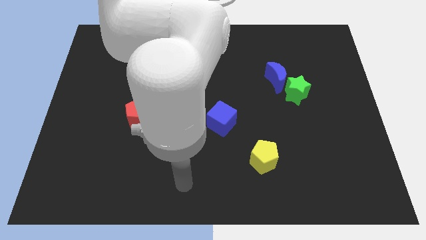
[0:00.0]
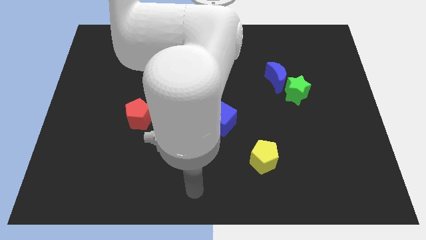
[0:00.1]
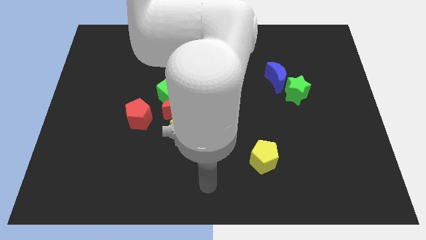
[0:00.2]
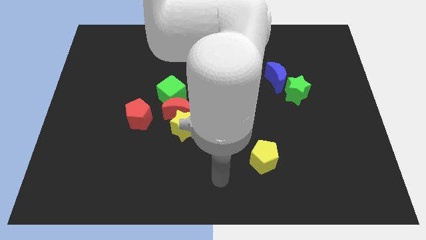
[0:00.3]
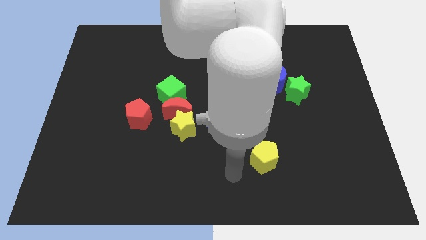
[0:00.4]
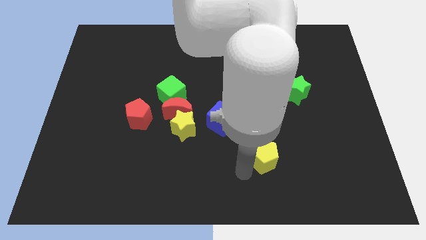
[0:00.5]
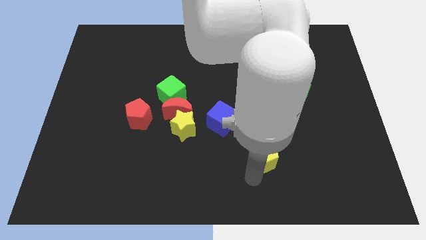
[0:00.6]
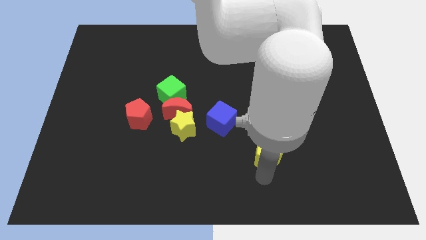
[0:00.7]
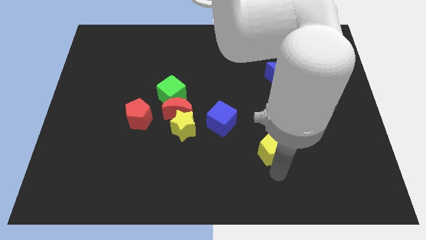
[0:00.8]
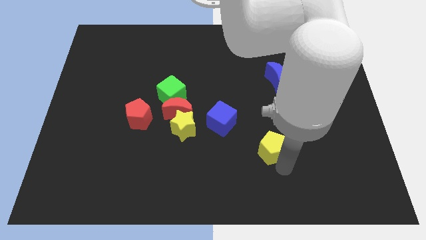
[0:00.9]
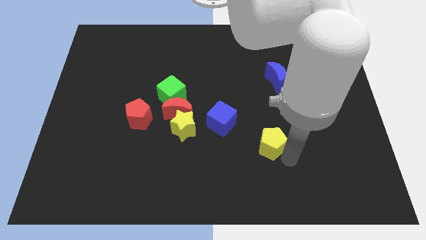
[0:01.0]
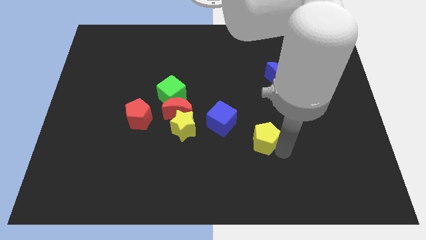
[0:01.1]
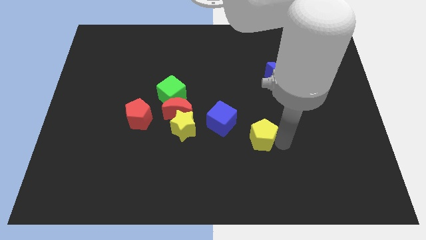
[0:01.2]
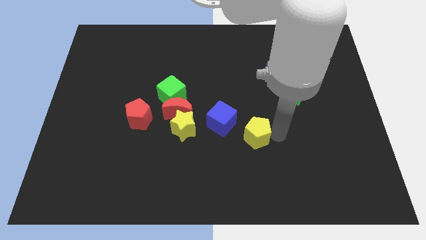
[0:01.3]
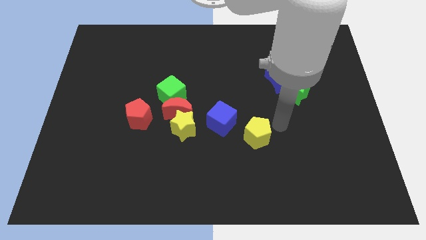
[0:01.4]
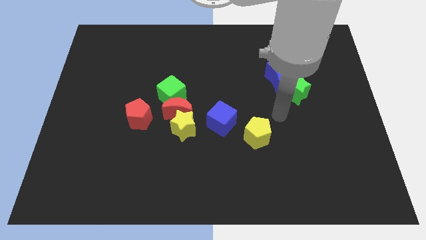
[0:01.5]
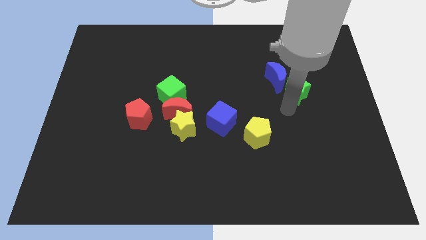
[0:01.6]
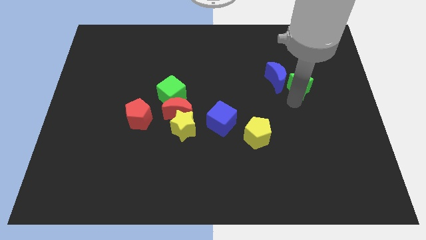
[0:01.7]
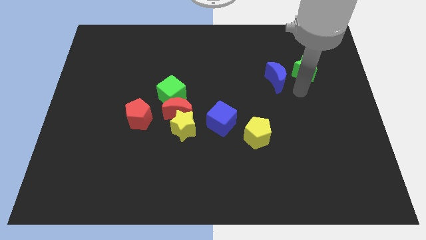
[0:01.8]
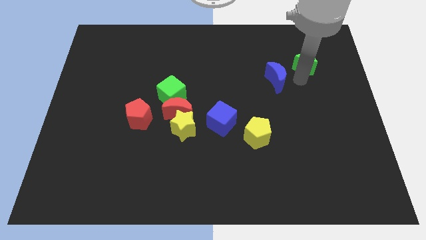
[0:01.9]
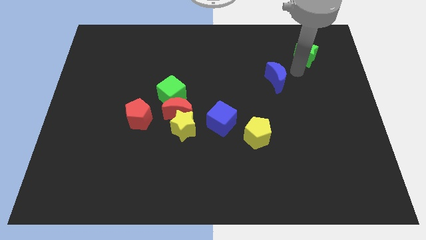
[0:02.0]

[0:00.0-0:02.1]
move the blue moon away from the green star

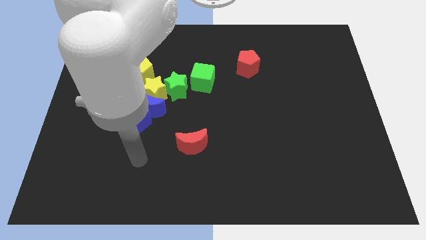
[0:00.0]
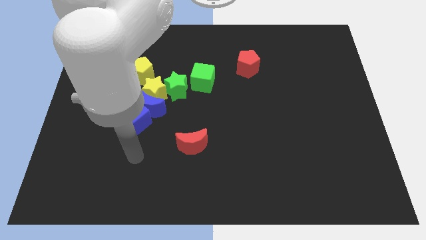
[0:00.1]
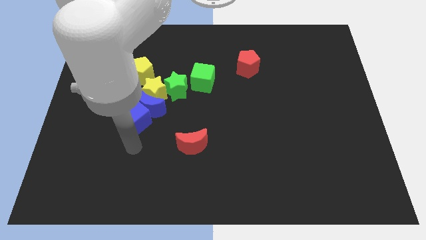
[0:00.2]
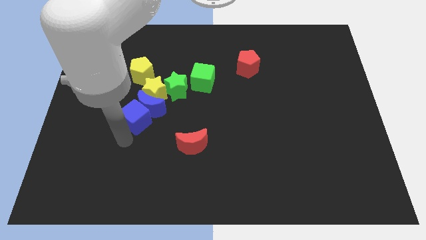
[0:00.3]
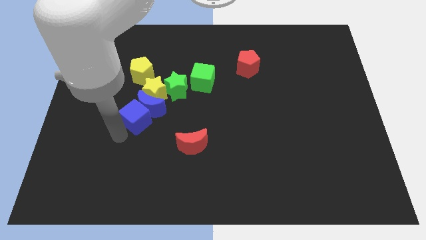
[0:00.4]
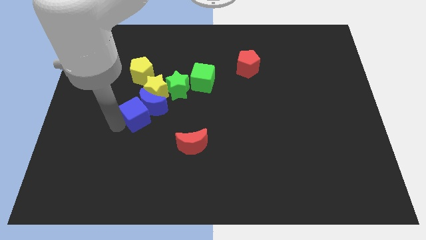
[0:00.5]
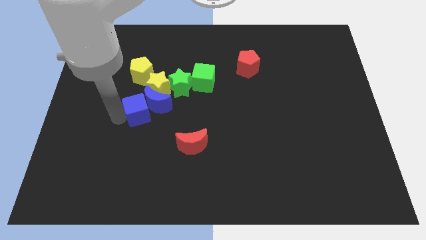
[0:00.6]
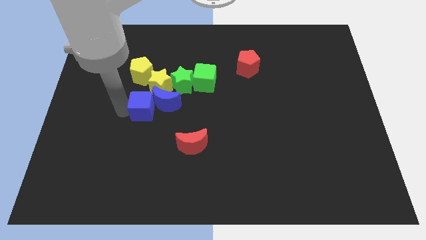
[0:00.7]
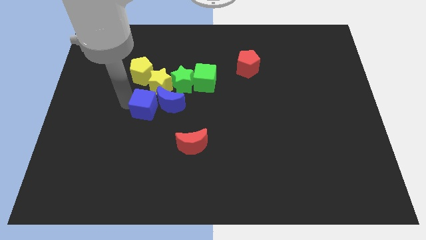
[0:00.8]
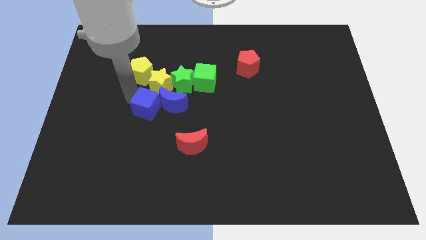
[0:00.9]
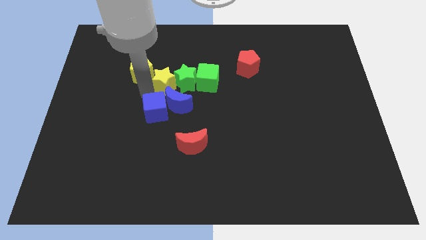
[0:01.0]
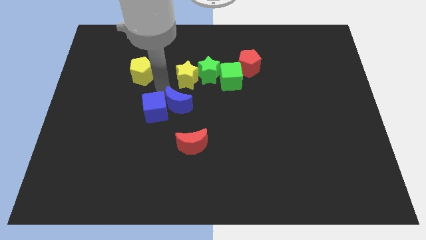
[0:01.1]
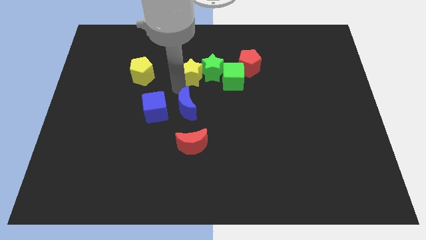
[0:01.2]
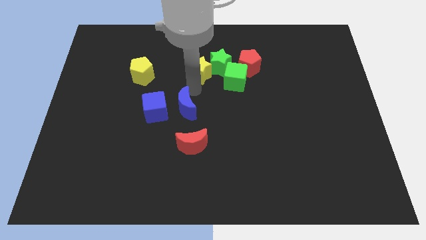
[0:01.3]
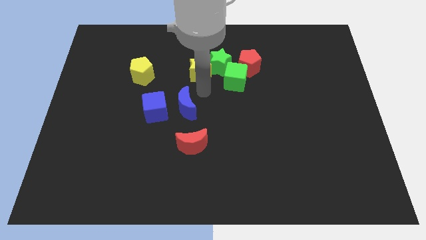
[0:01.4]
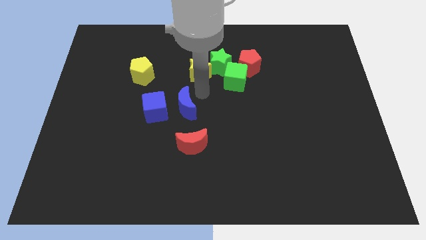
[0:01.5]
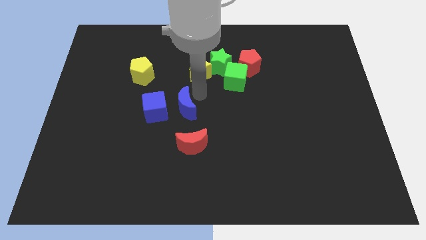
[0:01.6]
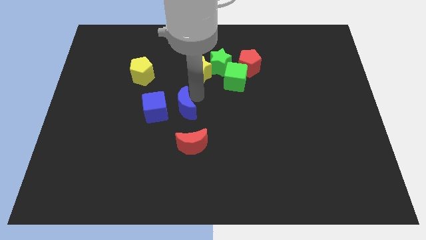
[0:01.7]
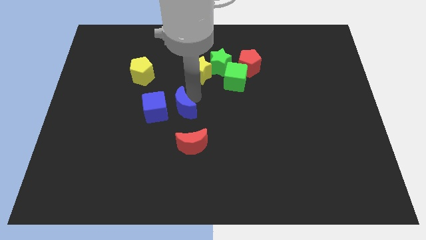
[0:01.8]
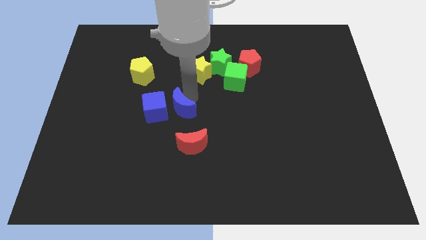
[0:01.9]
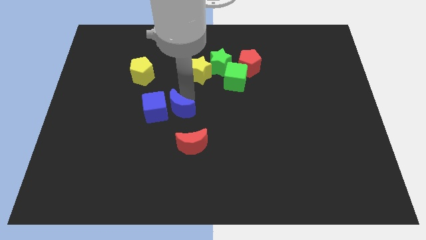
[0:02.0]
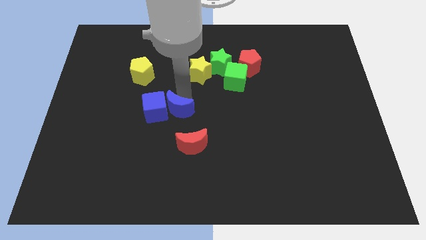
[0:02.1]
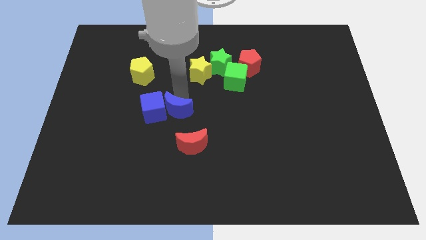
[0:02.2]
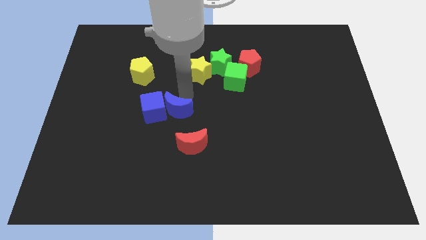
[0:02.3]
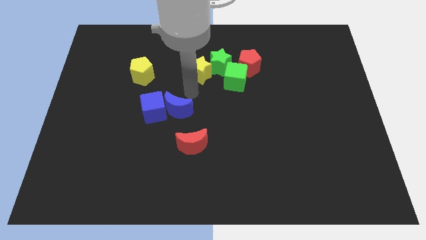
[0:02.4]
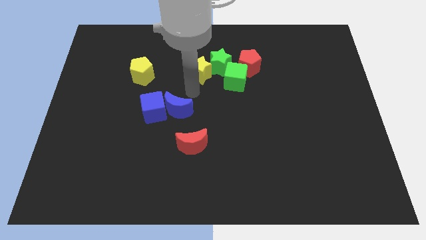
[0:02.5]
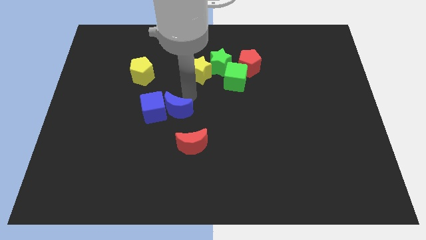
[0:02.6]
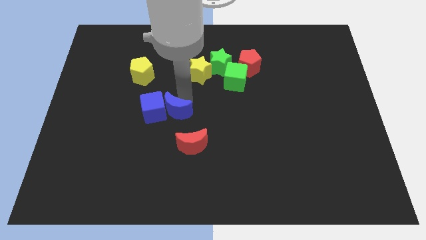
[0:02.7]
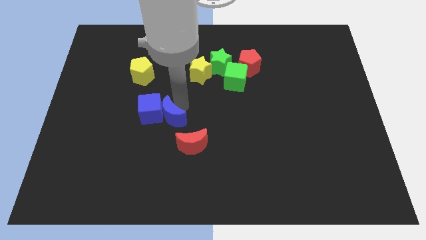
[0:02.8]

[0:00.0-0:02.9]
separate the blue moon from the group of blocks

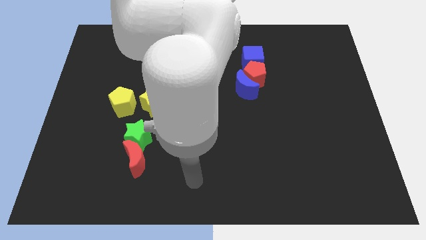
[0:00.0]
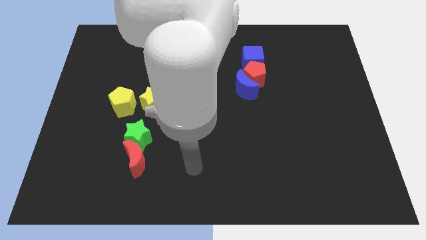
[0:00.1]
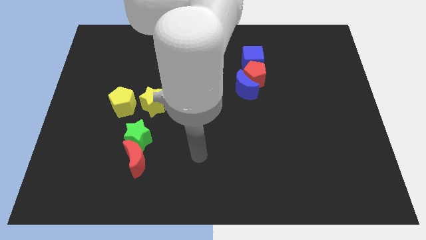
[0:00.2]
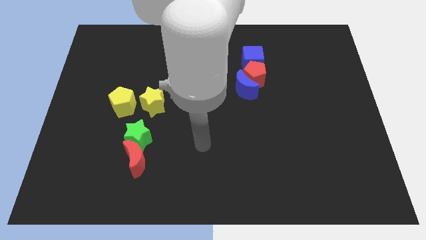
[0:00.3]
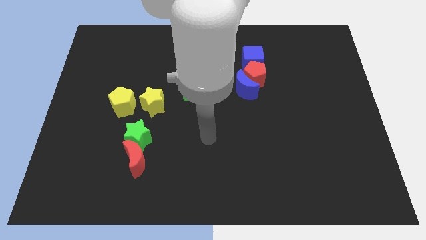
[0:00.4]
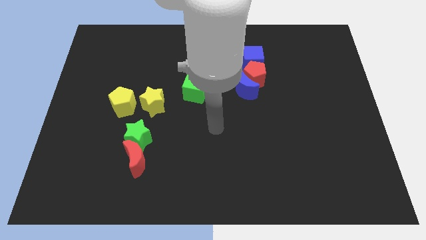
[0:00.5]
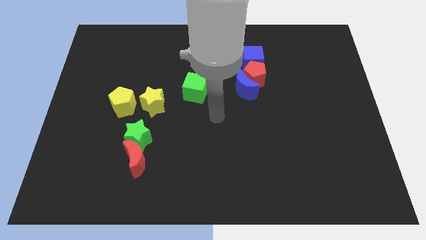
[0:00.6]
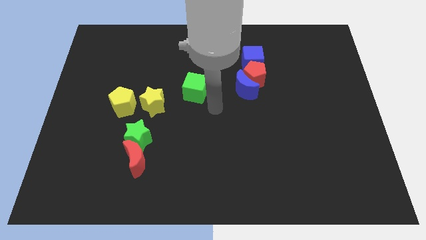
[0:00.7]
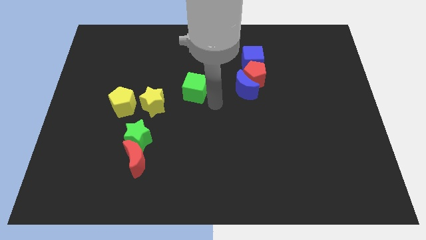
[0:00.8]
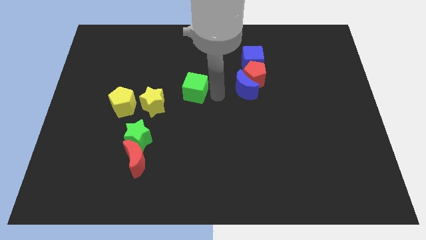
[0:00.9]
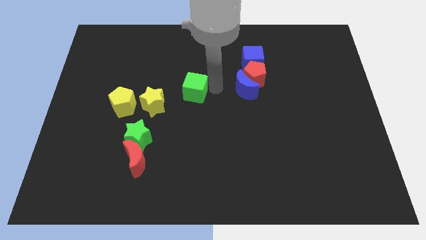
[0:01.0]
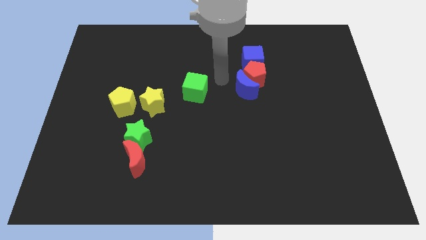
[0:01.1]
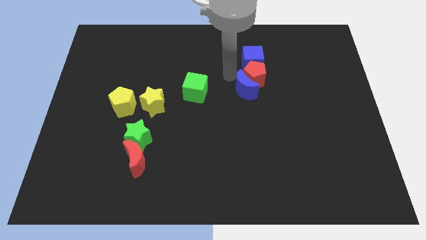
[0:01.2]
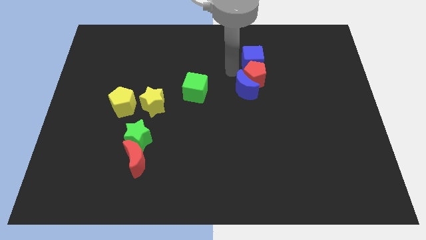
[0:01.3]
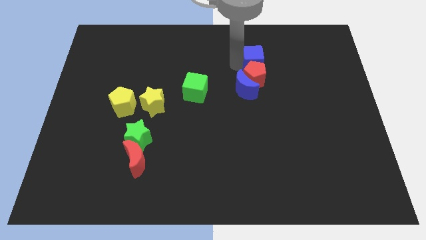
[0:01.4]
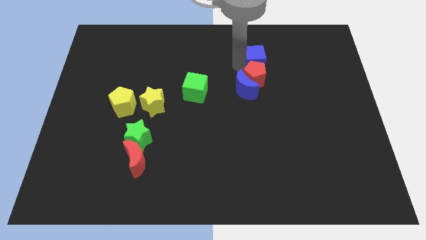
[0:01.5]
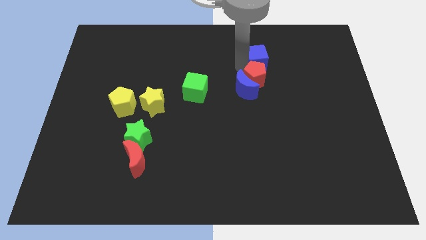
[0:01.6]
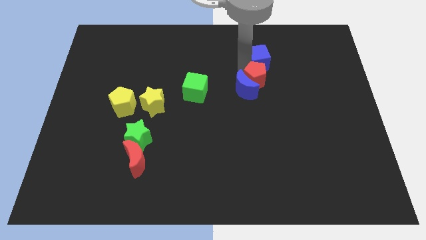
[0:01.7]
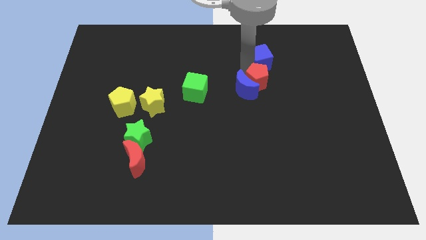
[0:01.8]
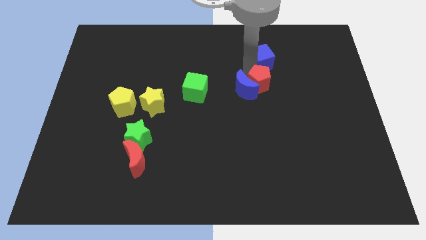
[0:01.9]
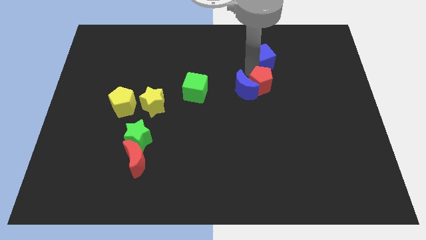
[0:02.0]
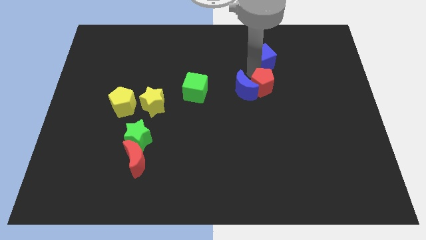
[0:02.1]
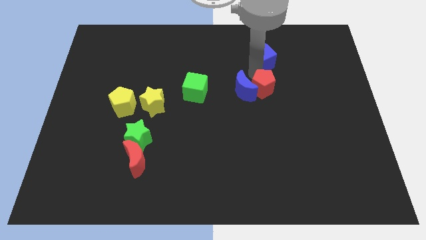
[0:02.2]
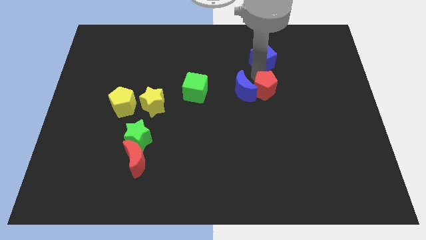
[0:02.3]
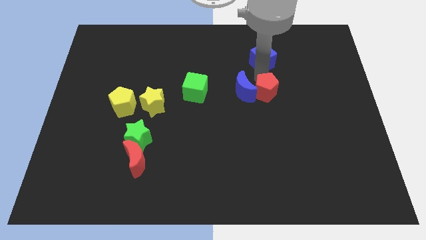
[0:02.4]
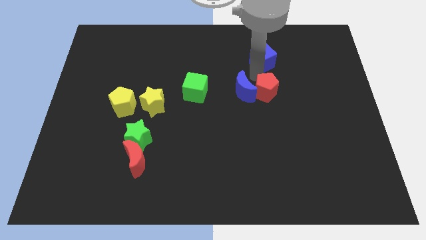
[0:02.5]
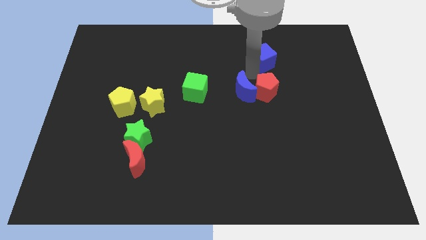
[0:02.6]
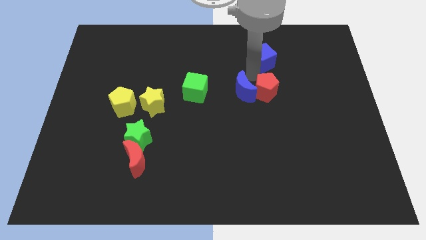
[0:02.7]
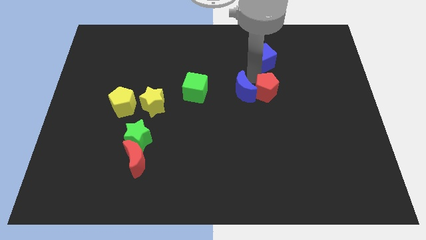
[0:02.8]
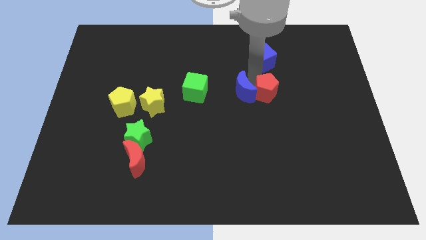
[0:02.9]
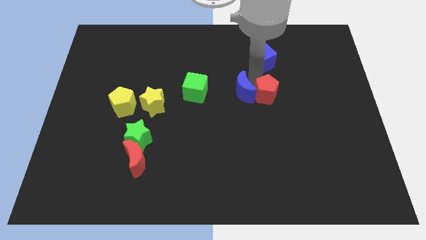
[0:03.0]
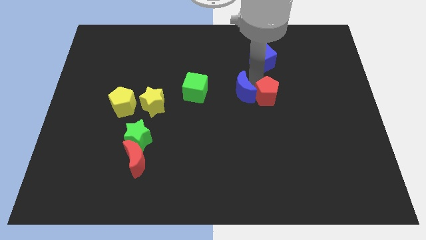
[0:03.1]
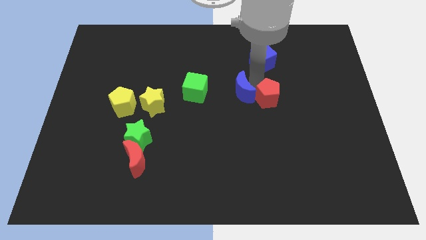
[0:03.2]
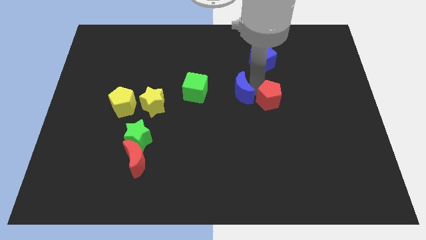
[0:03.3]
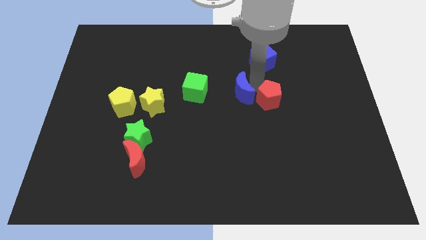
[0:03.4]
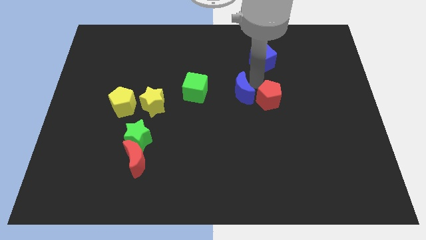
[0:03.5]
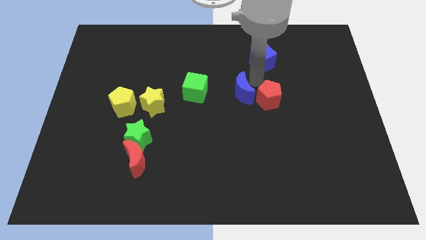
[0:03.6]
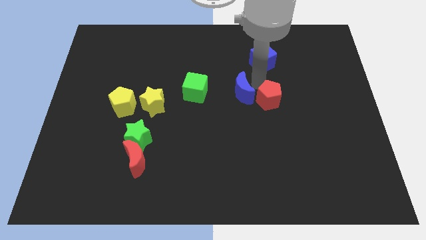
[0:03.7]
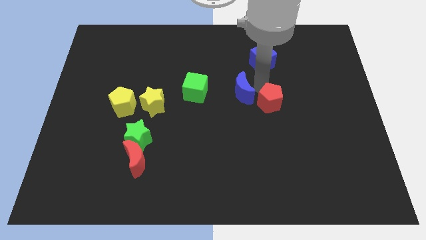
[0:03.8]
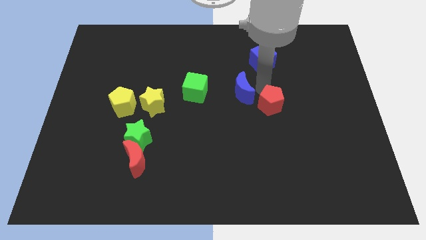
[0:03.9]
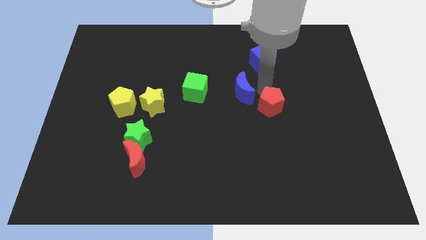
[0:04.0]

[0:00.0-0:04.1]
pull the red pentagon apart from the blue moon and blue cube

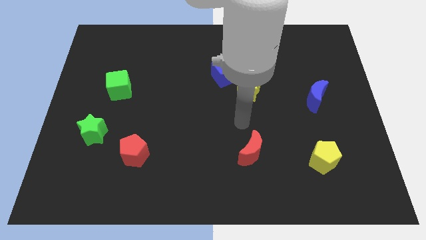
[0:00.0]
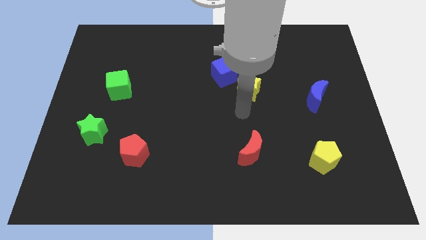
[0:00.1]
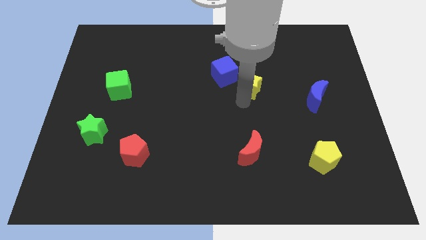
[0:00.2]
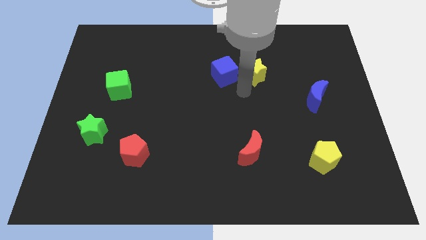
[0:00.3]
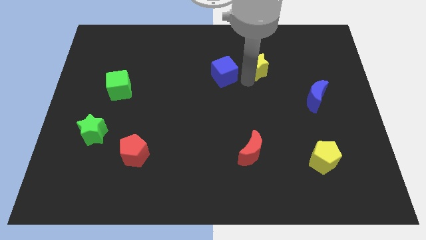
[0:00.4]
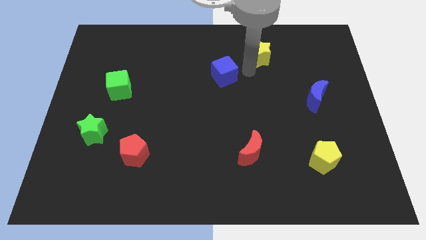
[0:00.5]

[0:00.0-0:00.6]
separate the blue cube from the yellow star
